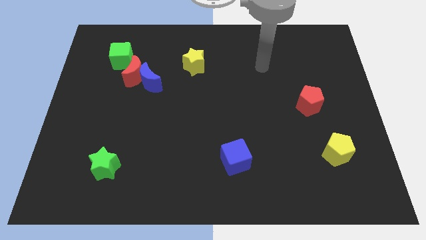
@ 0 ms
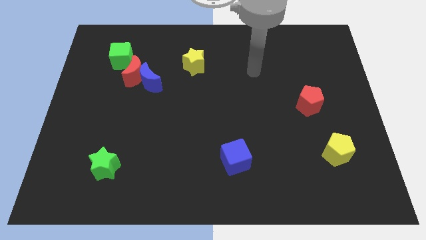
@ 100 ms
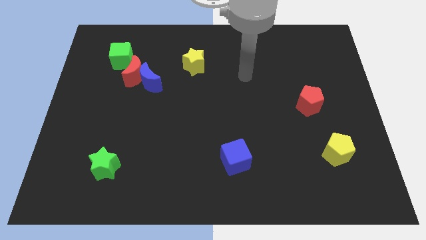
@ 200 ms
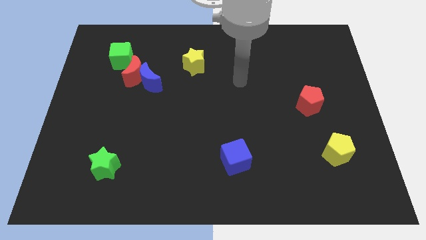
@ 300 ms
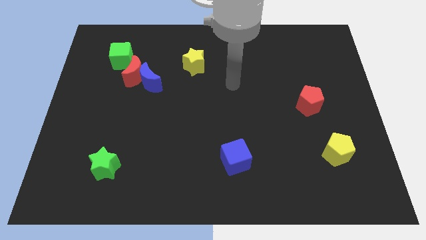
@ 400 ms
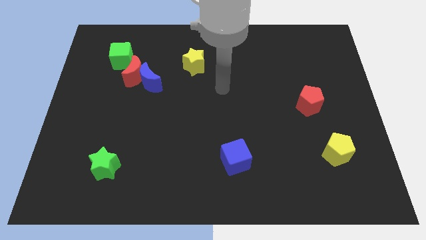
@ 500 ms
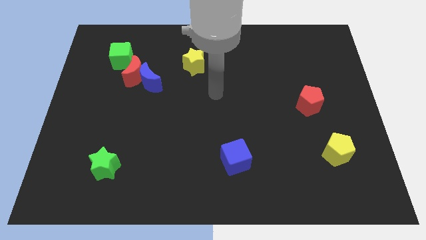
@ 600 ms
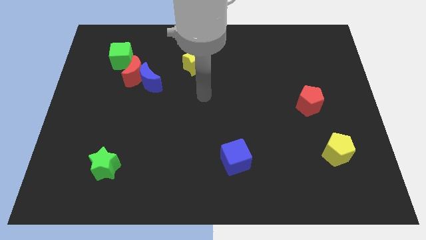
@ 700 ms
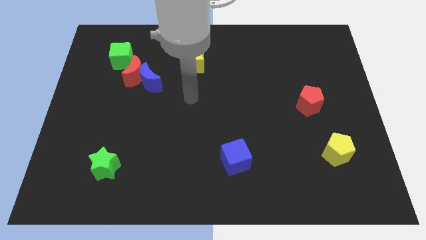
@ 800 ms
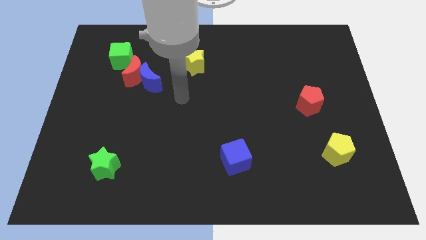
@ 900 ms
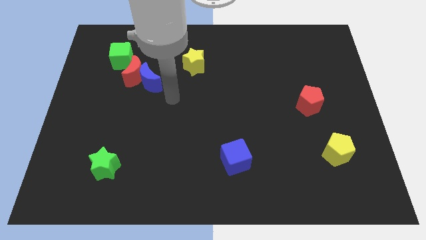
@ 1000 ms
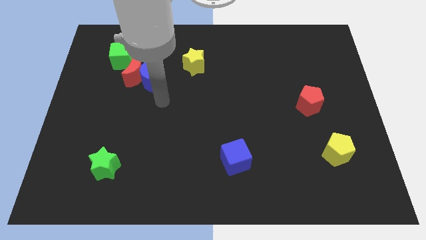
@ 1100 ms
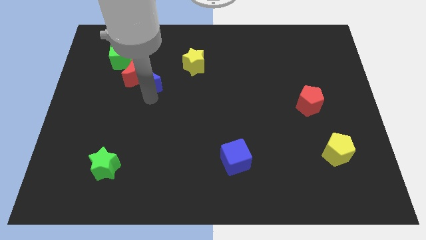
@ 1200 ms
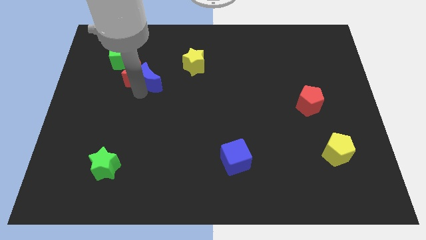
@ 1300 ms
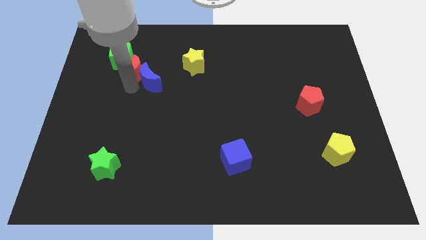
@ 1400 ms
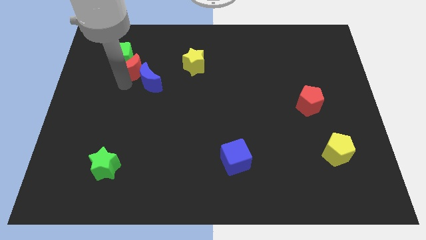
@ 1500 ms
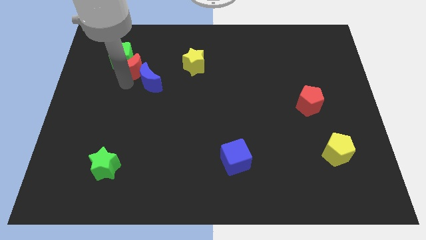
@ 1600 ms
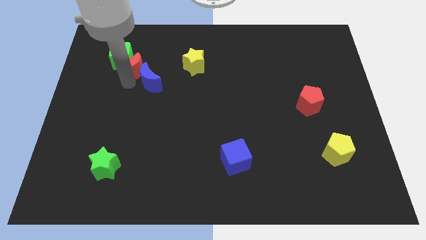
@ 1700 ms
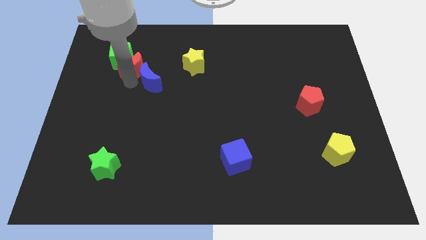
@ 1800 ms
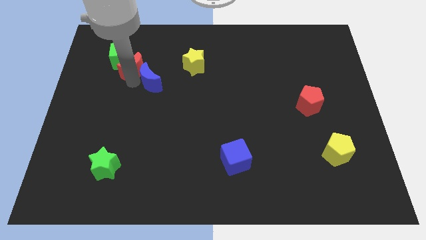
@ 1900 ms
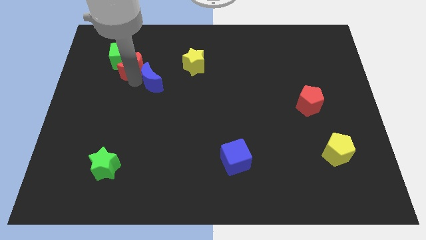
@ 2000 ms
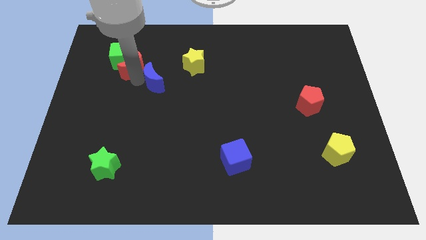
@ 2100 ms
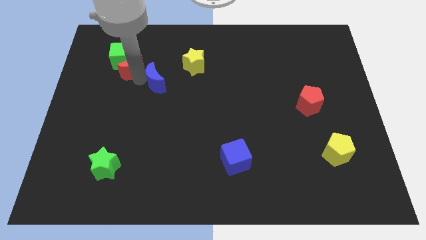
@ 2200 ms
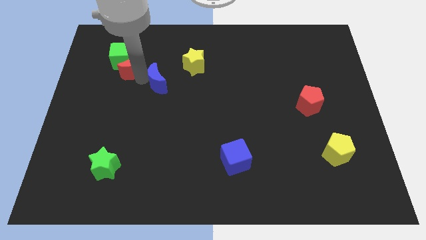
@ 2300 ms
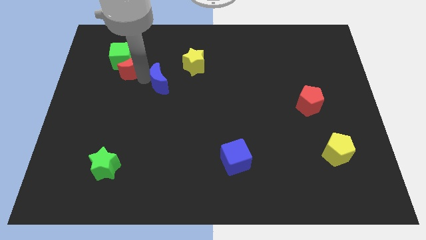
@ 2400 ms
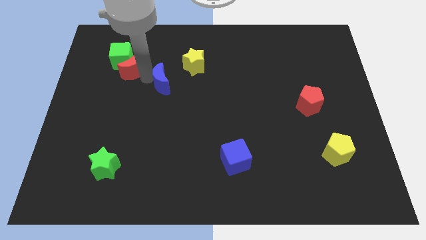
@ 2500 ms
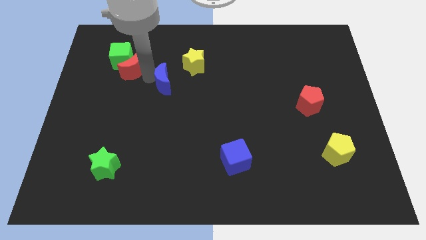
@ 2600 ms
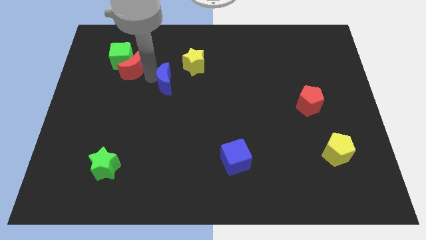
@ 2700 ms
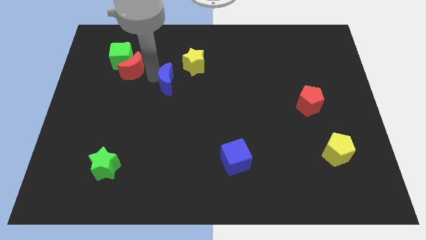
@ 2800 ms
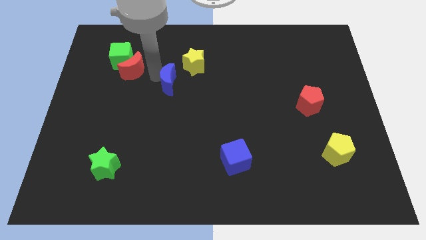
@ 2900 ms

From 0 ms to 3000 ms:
move the blue moon away from the red moon

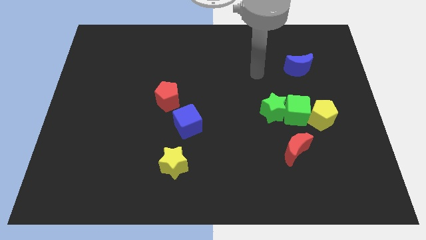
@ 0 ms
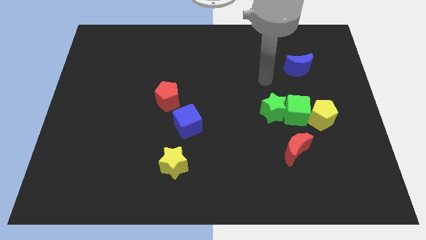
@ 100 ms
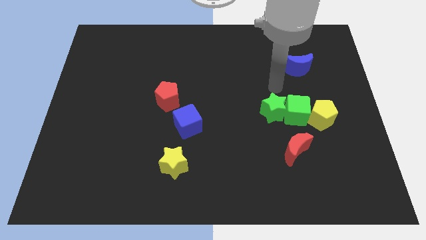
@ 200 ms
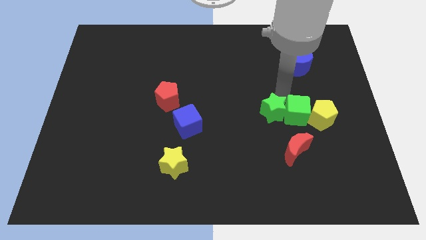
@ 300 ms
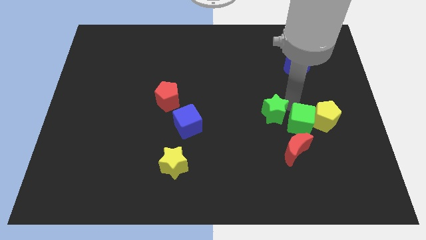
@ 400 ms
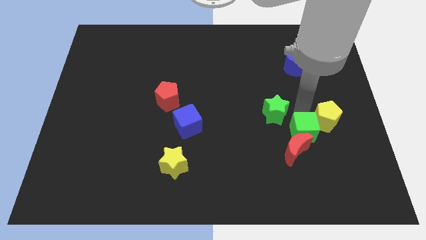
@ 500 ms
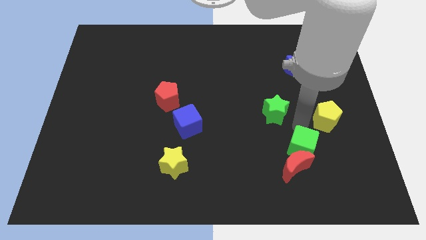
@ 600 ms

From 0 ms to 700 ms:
separate the green star from the green cube

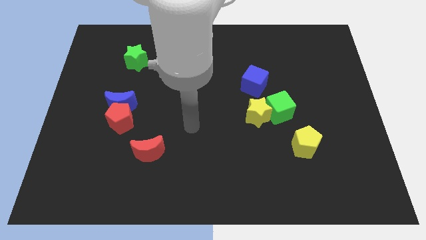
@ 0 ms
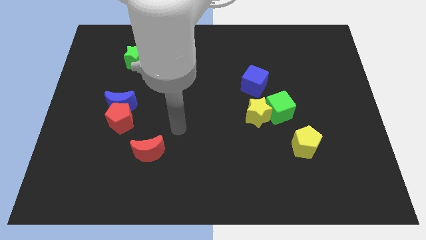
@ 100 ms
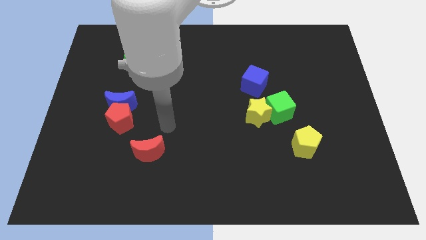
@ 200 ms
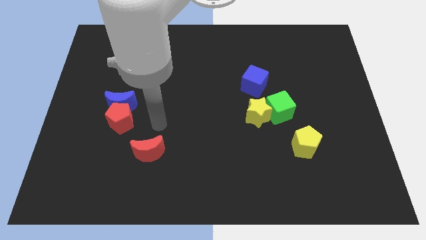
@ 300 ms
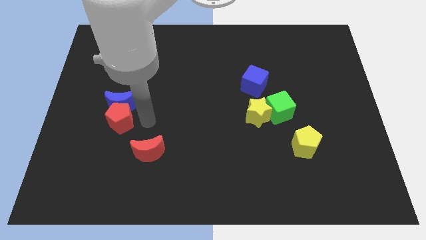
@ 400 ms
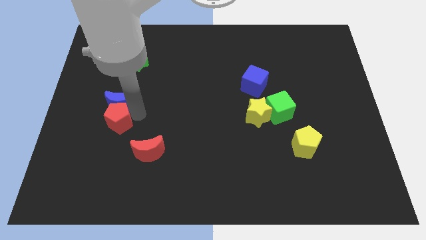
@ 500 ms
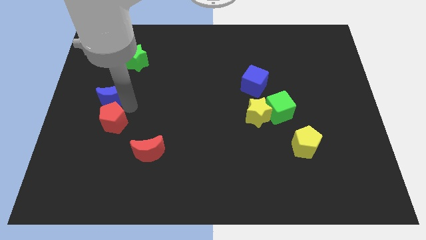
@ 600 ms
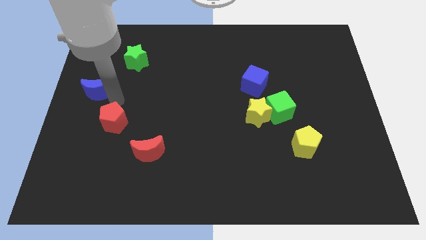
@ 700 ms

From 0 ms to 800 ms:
pull the red pentagon apart from the blue moon

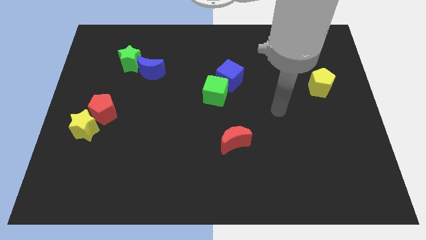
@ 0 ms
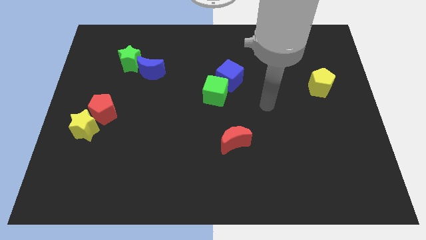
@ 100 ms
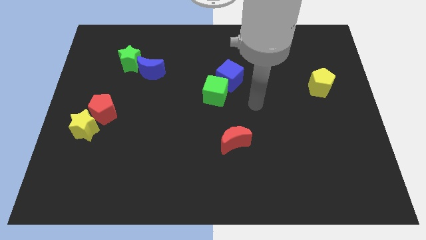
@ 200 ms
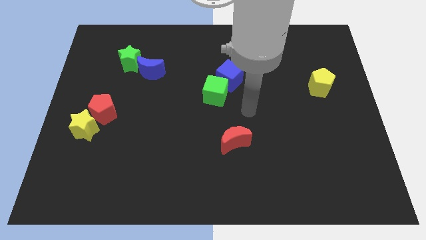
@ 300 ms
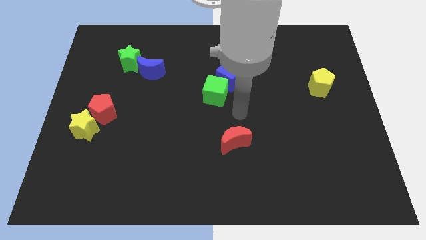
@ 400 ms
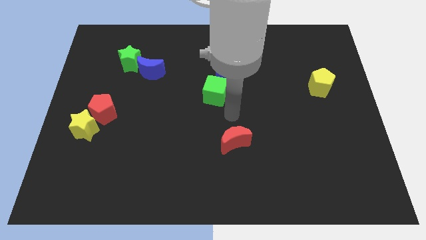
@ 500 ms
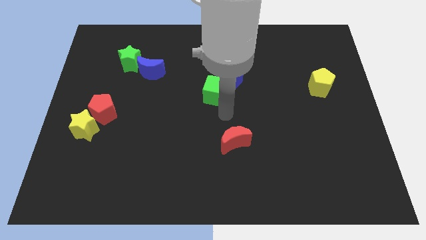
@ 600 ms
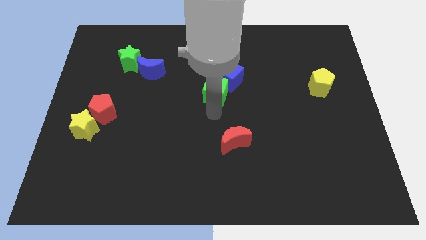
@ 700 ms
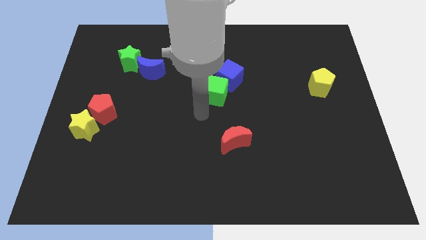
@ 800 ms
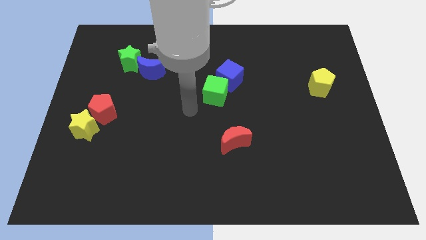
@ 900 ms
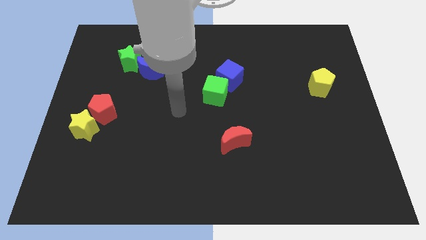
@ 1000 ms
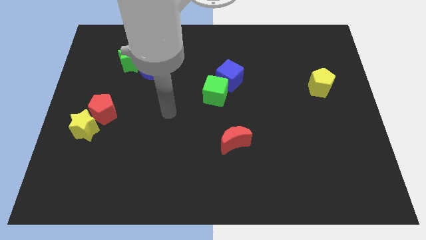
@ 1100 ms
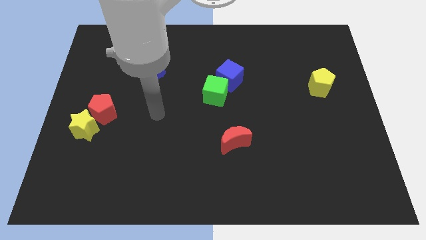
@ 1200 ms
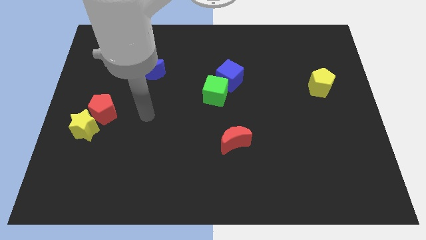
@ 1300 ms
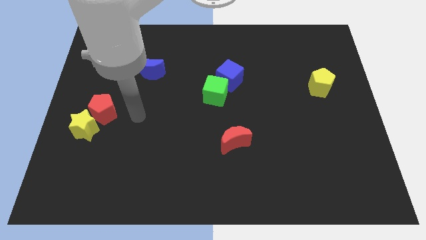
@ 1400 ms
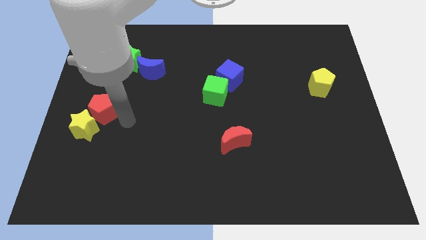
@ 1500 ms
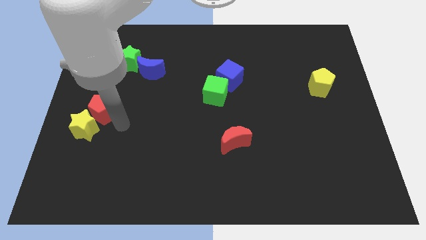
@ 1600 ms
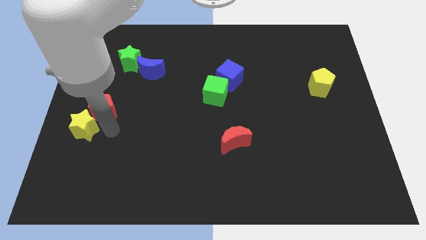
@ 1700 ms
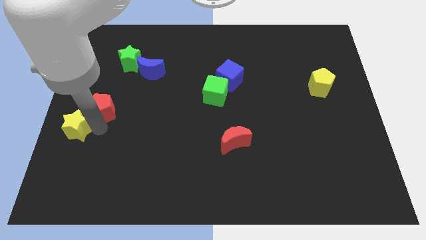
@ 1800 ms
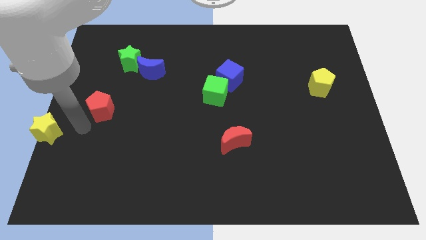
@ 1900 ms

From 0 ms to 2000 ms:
separate the red pentagon from the yellow star

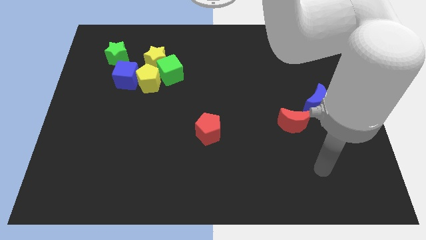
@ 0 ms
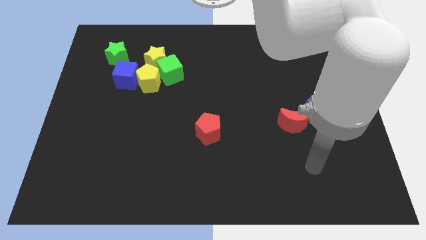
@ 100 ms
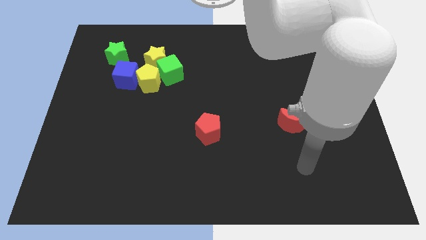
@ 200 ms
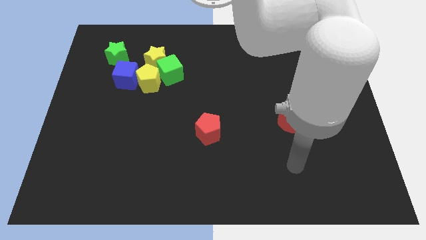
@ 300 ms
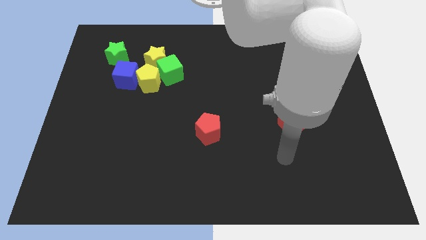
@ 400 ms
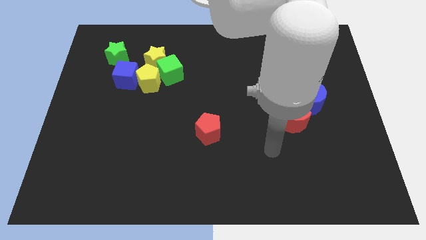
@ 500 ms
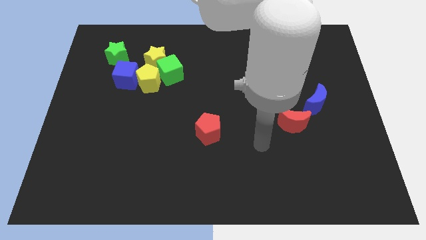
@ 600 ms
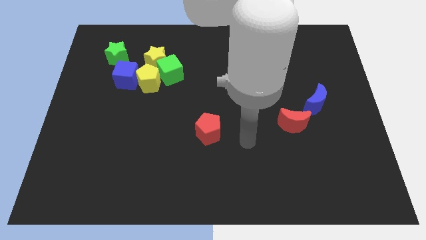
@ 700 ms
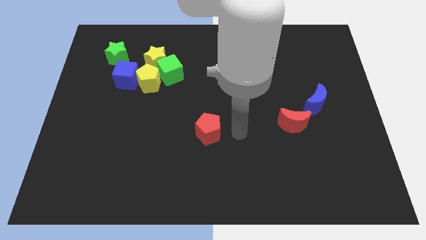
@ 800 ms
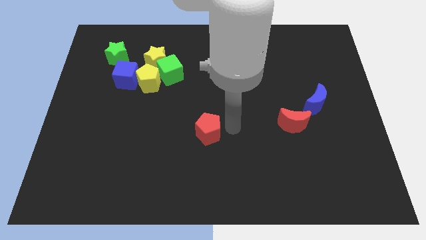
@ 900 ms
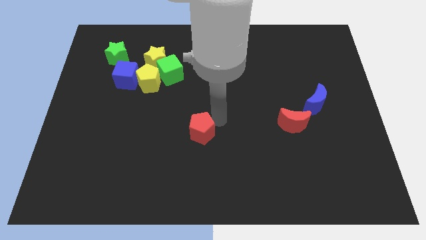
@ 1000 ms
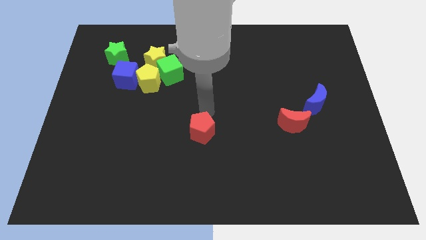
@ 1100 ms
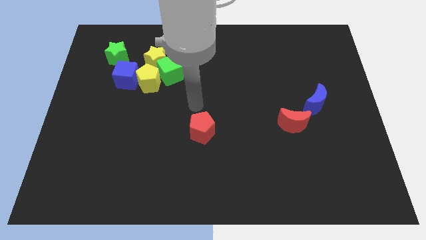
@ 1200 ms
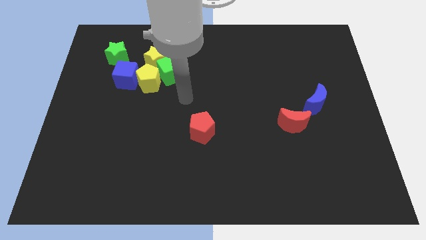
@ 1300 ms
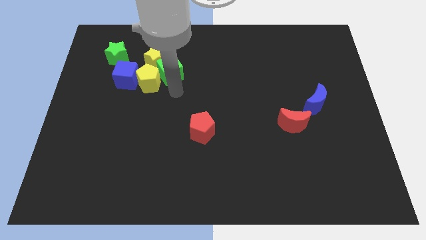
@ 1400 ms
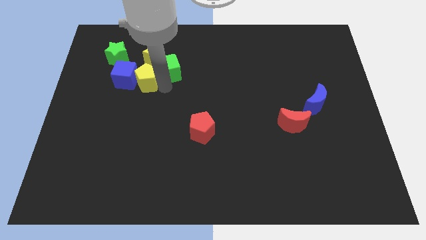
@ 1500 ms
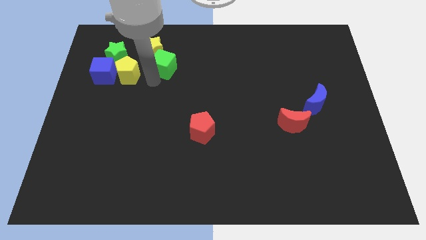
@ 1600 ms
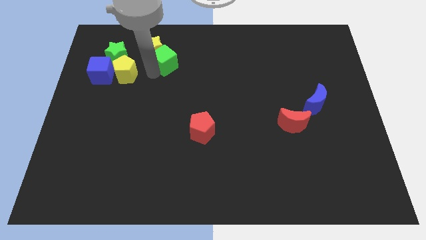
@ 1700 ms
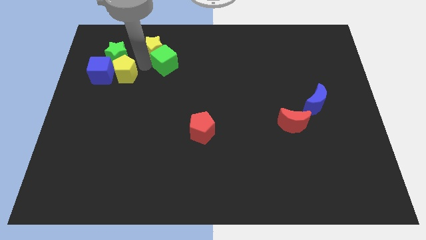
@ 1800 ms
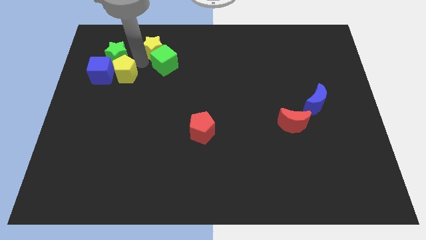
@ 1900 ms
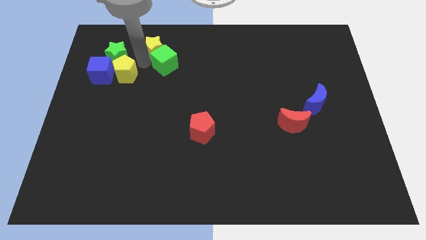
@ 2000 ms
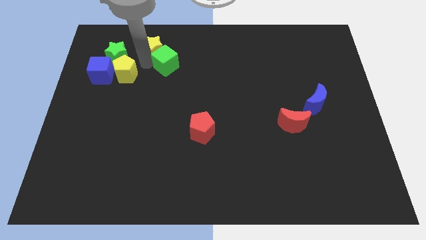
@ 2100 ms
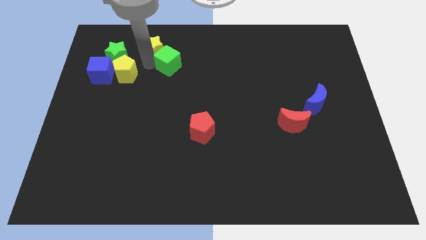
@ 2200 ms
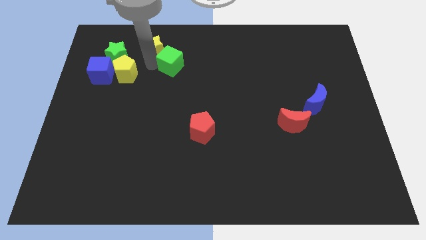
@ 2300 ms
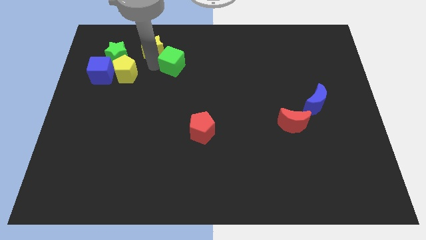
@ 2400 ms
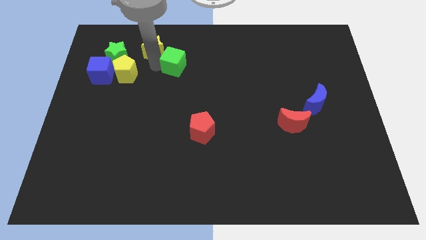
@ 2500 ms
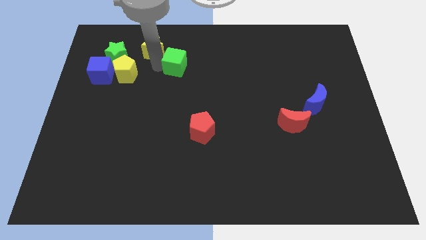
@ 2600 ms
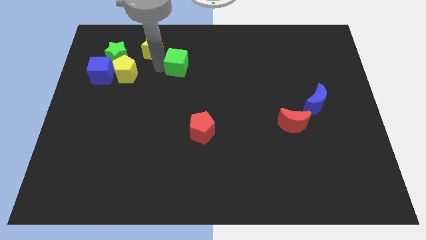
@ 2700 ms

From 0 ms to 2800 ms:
pull the green cube apart from the yellow star and yellow pentagon
